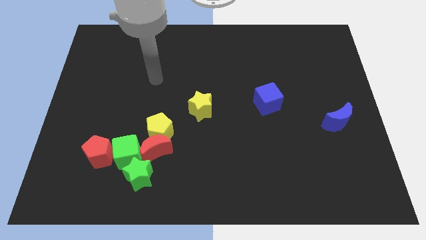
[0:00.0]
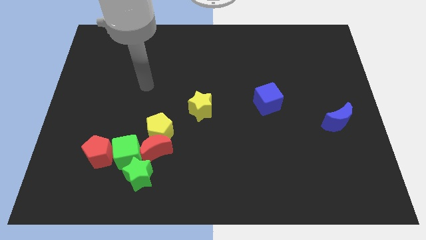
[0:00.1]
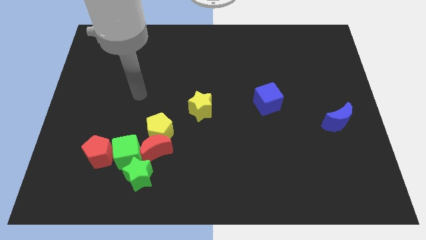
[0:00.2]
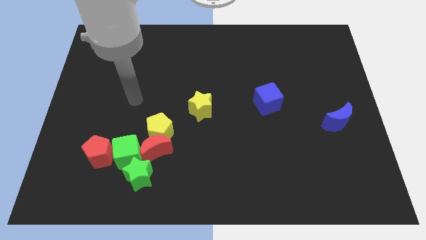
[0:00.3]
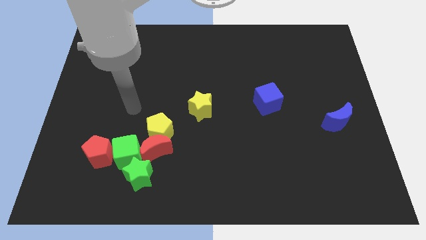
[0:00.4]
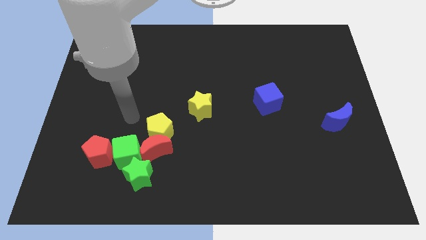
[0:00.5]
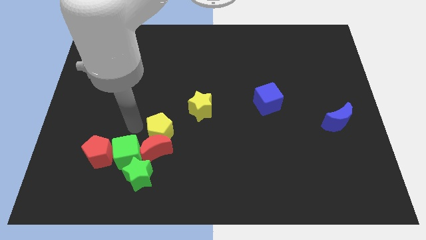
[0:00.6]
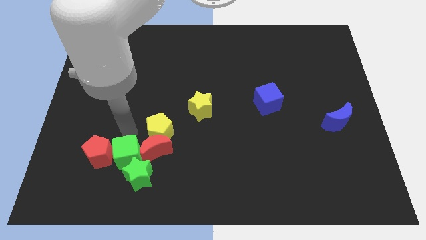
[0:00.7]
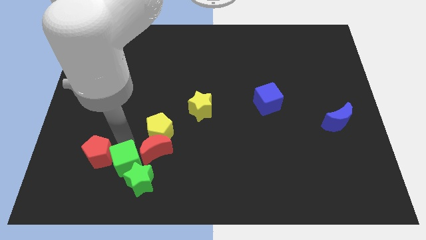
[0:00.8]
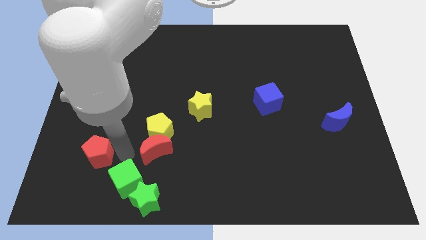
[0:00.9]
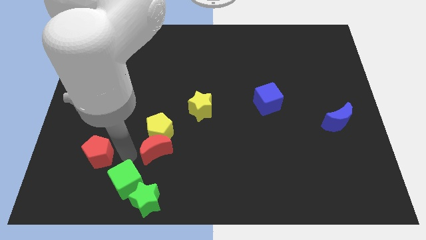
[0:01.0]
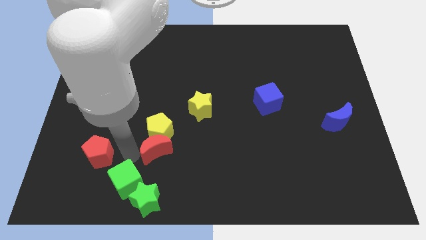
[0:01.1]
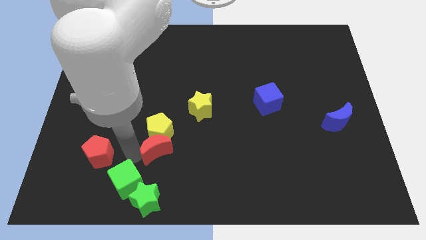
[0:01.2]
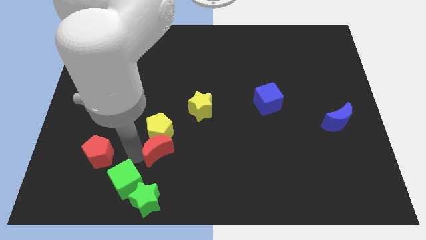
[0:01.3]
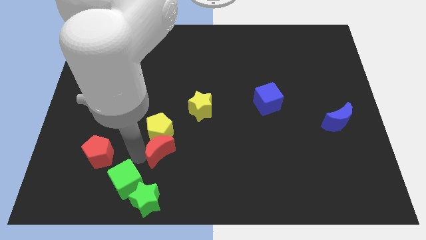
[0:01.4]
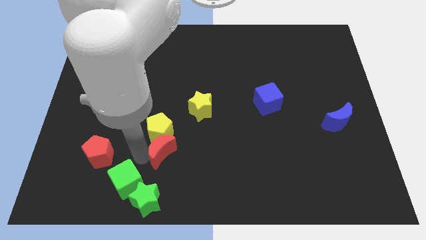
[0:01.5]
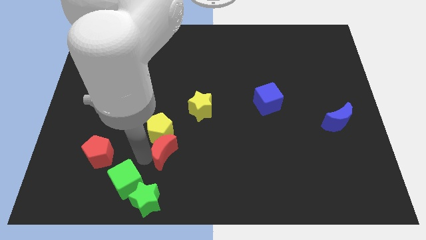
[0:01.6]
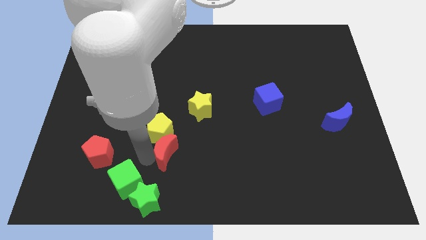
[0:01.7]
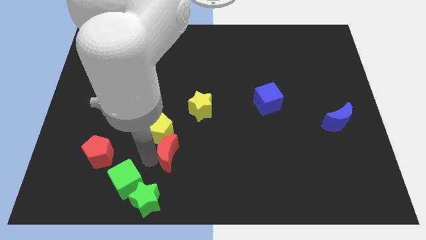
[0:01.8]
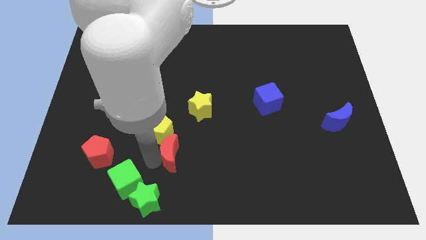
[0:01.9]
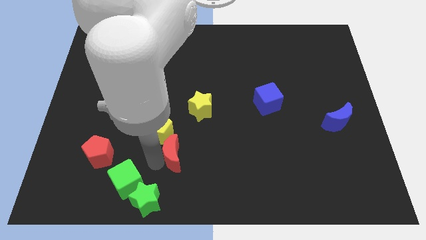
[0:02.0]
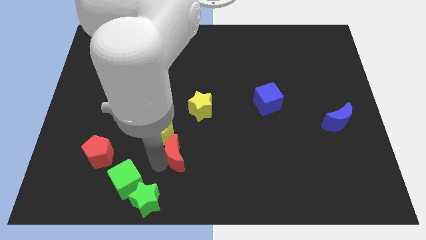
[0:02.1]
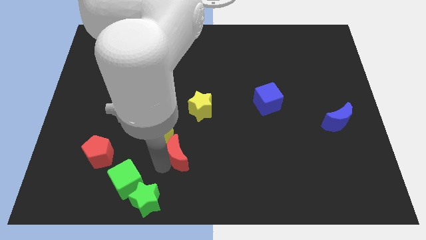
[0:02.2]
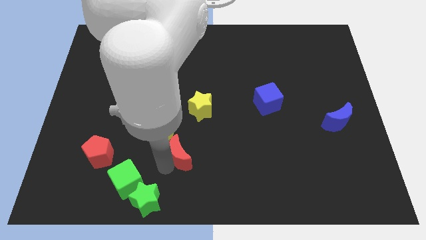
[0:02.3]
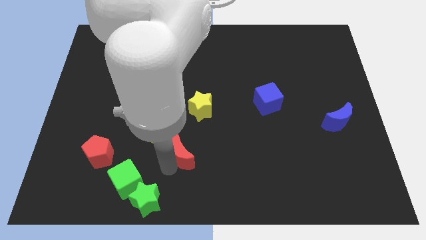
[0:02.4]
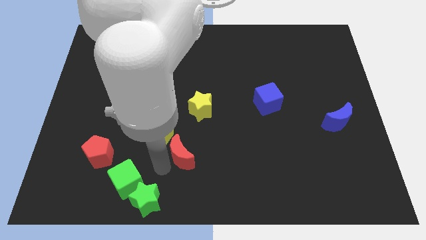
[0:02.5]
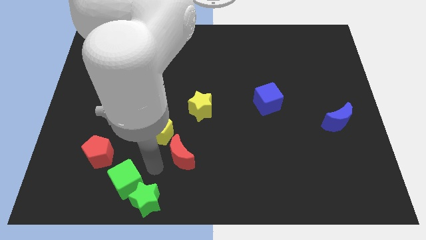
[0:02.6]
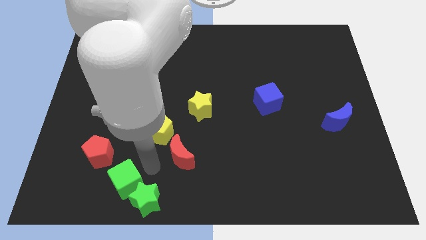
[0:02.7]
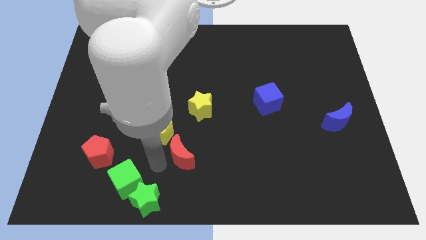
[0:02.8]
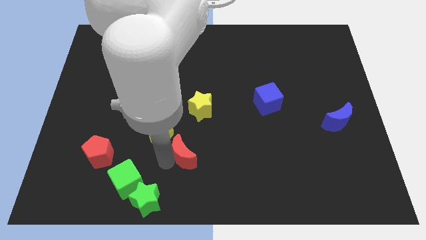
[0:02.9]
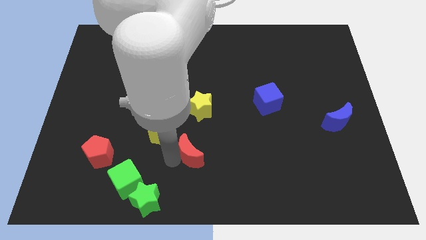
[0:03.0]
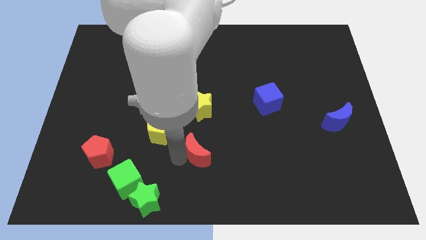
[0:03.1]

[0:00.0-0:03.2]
separate the red moon from the yellow pentagon, green cube, and green star

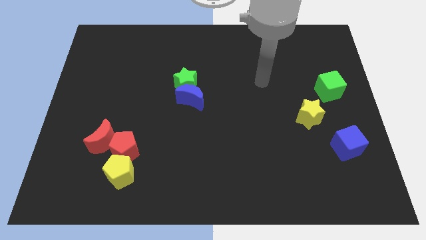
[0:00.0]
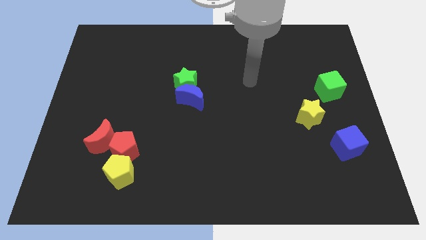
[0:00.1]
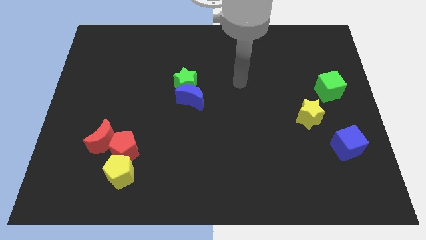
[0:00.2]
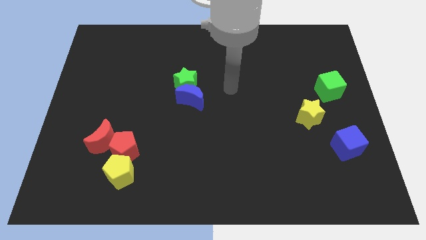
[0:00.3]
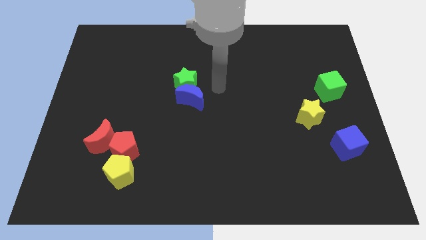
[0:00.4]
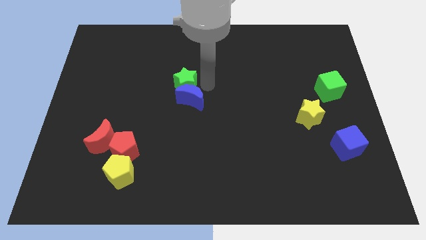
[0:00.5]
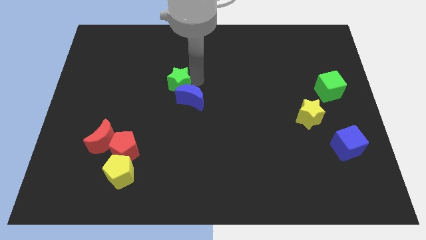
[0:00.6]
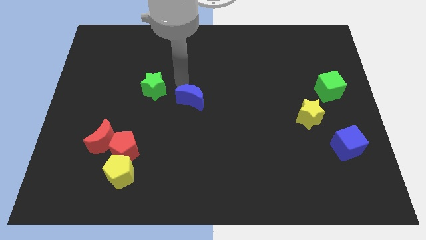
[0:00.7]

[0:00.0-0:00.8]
separate the blue moon from the green star

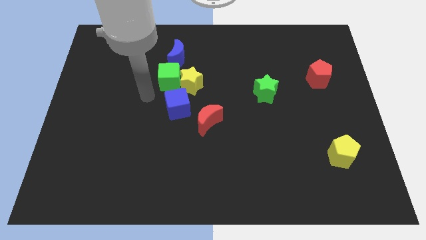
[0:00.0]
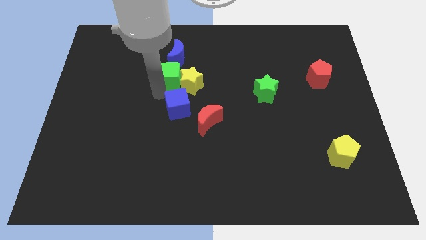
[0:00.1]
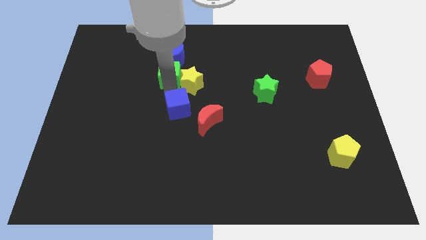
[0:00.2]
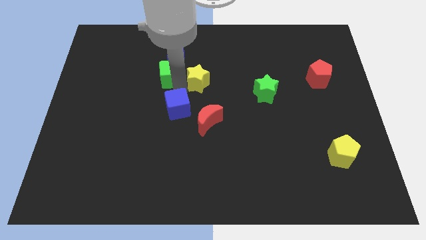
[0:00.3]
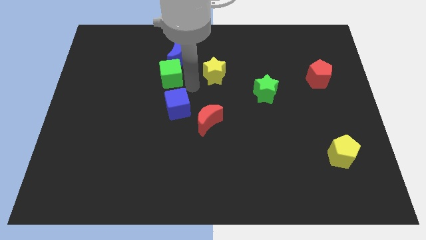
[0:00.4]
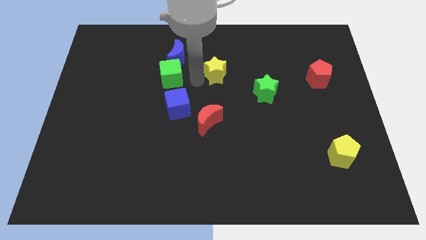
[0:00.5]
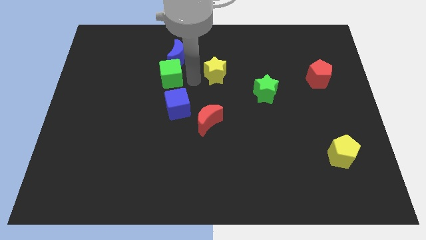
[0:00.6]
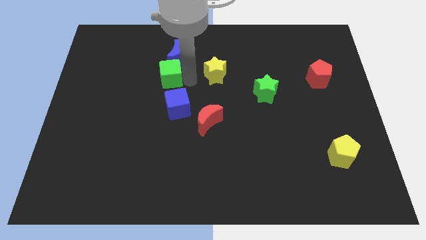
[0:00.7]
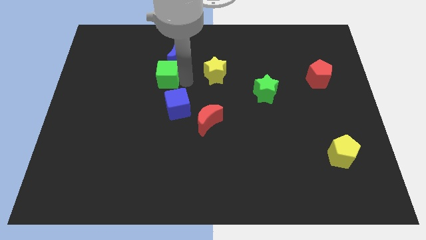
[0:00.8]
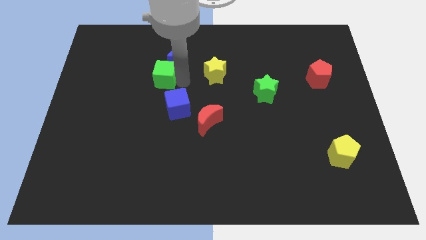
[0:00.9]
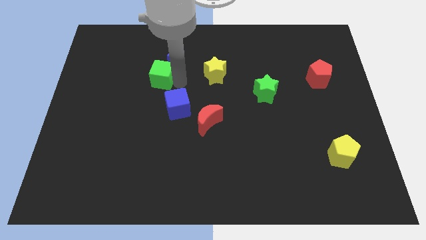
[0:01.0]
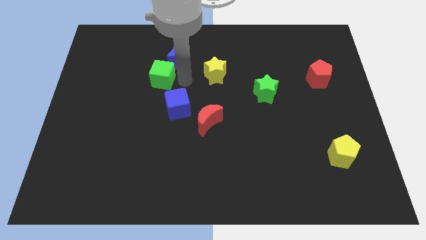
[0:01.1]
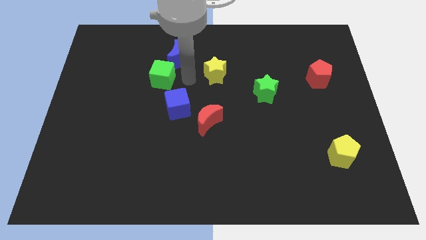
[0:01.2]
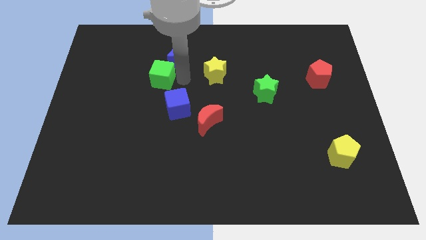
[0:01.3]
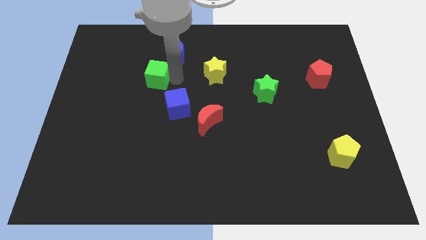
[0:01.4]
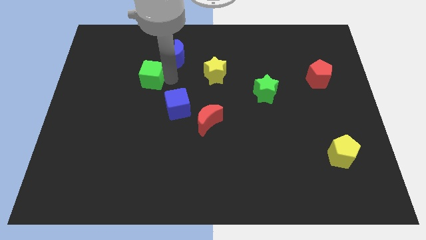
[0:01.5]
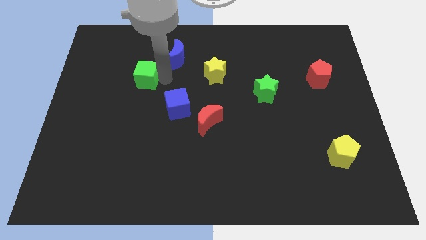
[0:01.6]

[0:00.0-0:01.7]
move the green cube away from the yellow star, blue moon, and blue cube

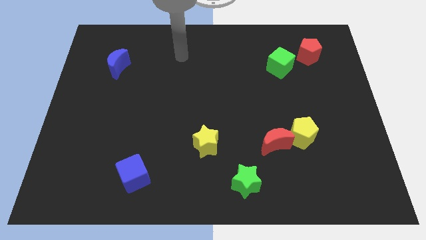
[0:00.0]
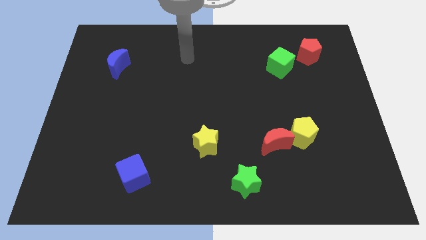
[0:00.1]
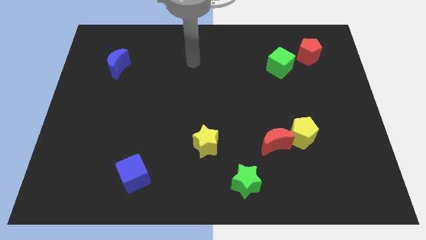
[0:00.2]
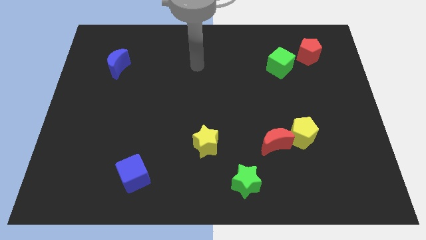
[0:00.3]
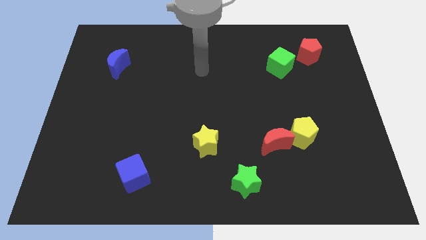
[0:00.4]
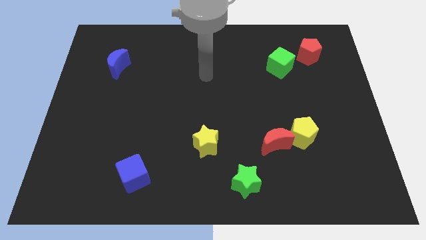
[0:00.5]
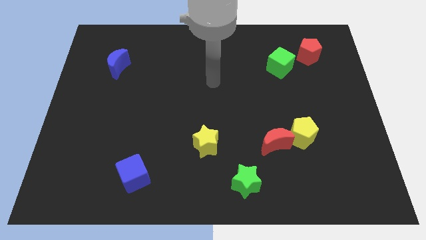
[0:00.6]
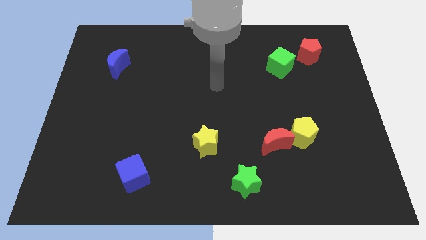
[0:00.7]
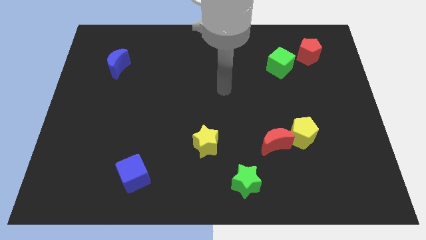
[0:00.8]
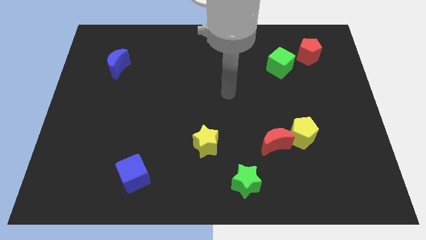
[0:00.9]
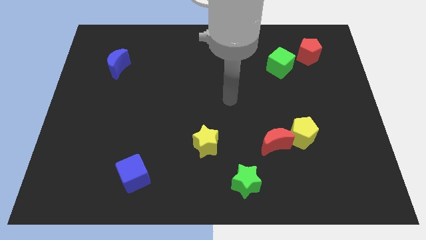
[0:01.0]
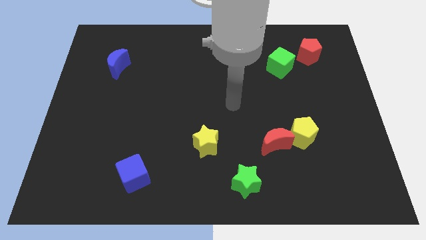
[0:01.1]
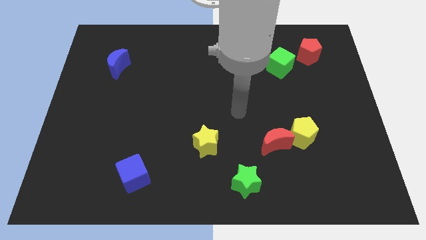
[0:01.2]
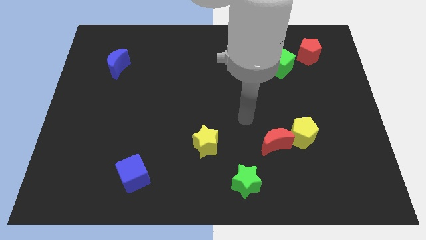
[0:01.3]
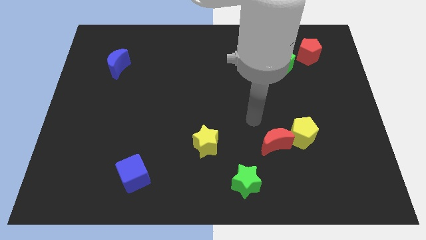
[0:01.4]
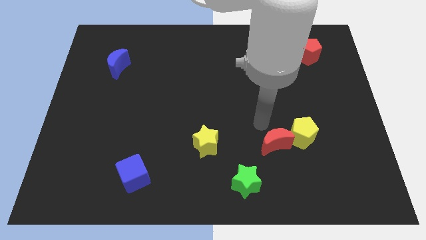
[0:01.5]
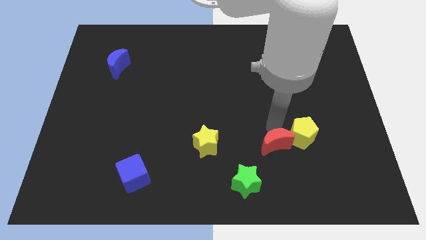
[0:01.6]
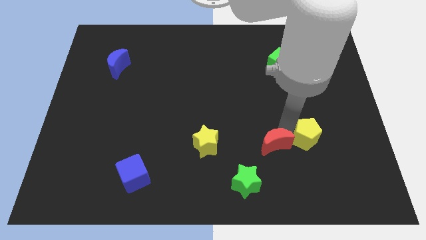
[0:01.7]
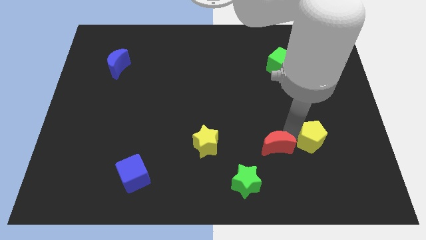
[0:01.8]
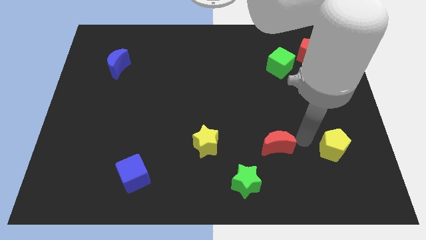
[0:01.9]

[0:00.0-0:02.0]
separate the red moon from the yellow pentagon

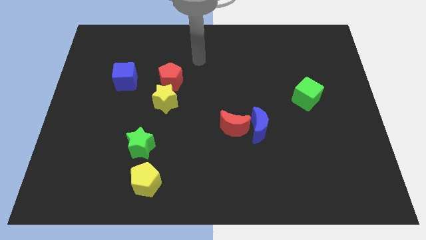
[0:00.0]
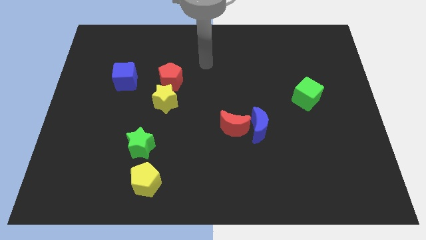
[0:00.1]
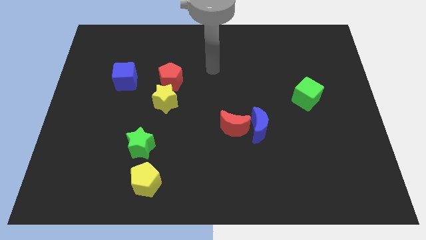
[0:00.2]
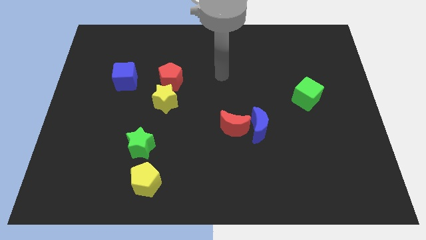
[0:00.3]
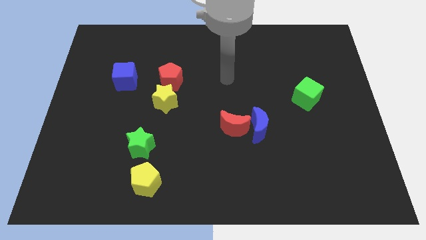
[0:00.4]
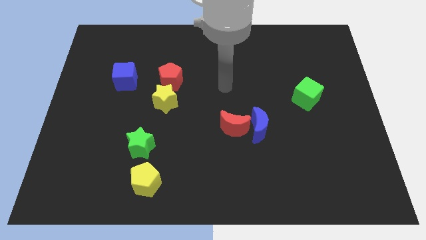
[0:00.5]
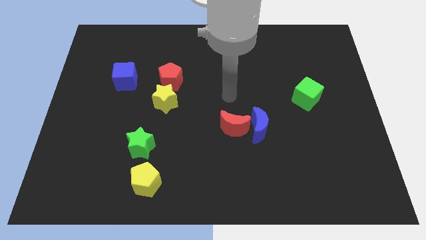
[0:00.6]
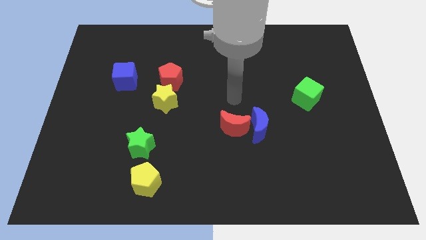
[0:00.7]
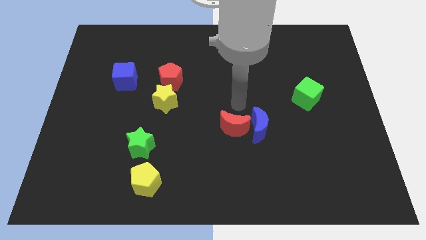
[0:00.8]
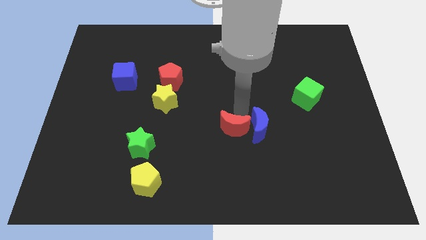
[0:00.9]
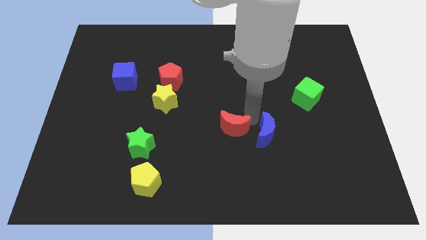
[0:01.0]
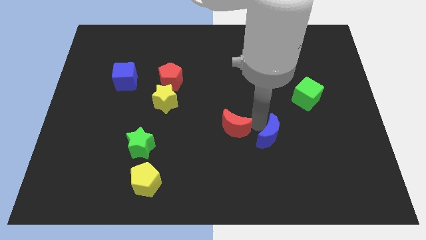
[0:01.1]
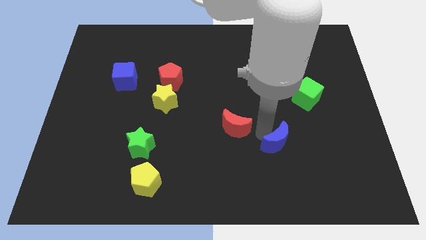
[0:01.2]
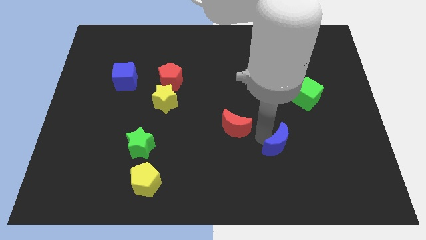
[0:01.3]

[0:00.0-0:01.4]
pull the red moon apart from the blue moon

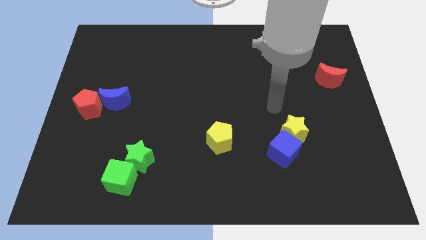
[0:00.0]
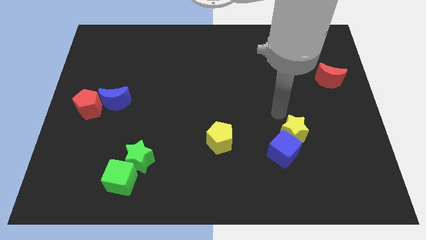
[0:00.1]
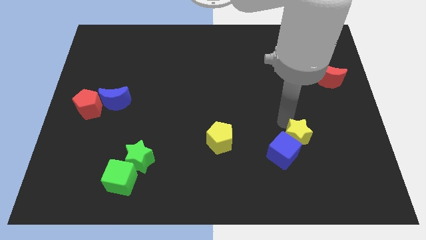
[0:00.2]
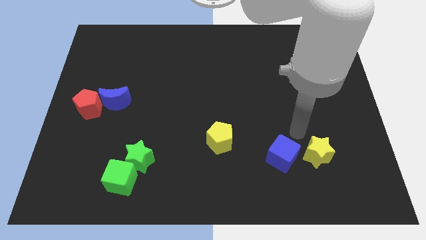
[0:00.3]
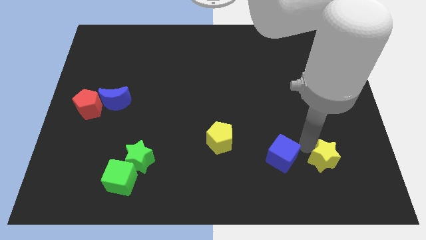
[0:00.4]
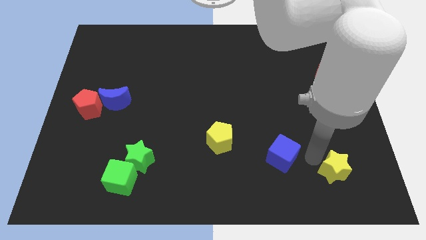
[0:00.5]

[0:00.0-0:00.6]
move the blue cube away from the yellow star
